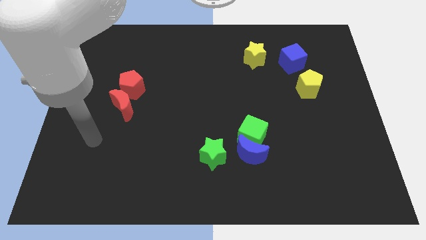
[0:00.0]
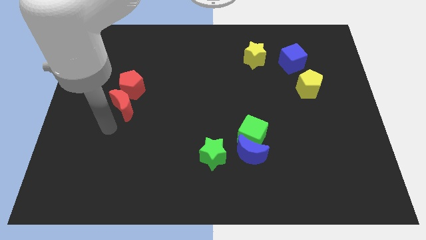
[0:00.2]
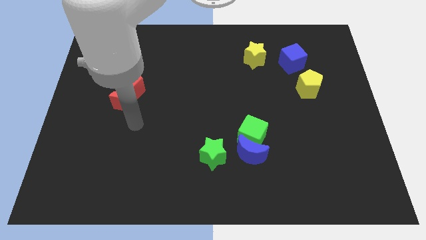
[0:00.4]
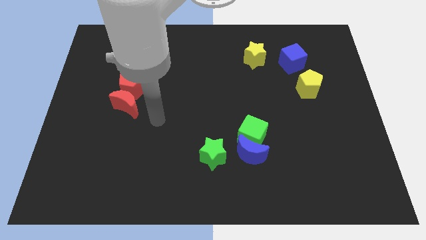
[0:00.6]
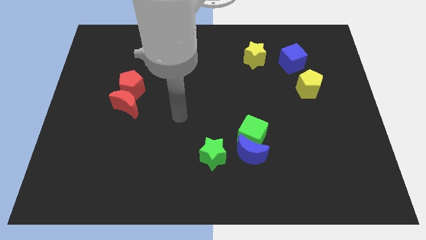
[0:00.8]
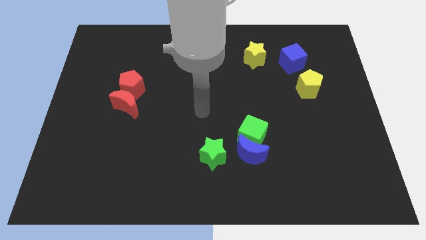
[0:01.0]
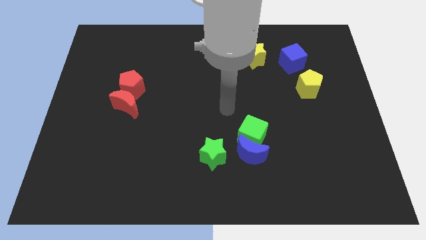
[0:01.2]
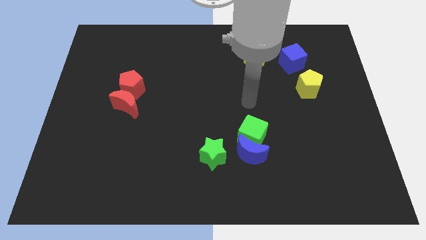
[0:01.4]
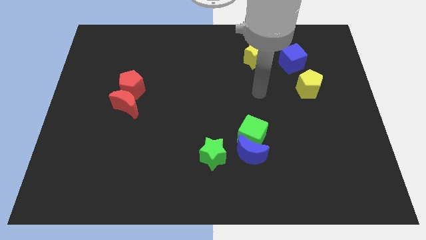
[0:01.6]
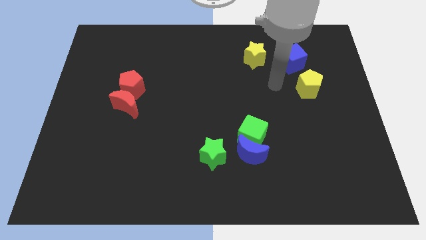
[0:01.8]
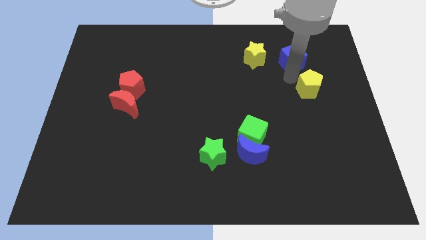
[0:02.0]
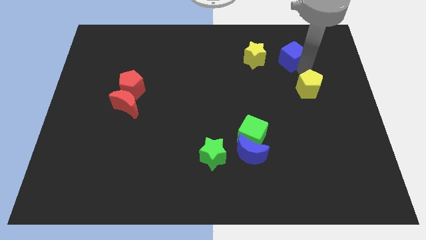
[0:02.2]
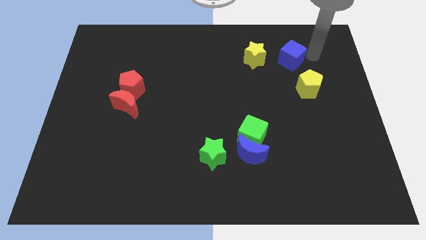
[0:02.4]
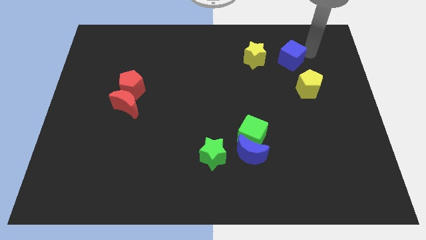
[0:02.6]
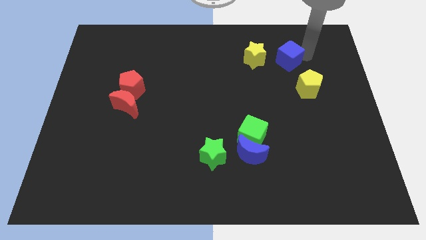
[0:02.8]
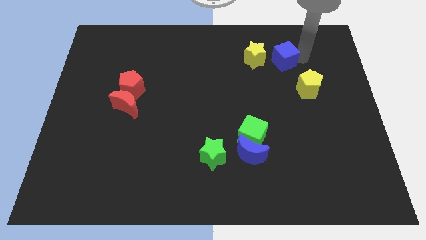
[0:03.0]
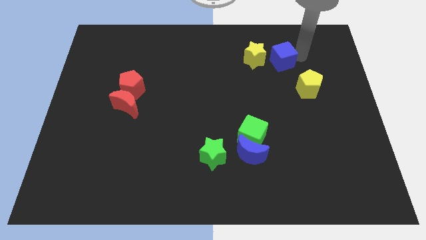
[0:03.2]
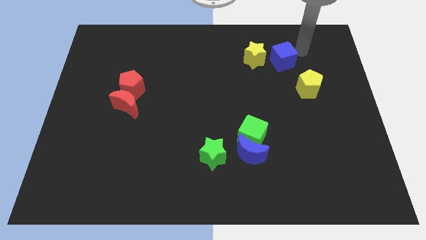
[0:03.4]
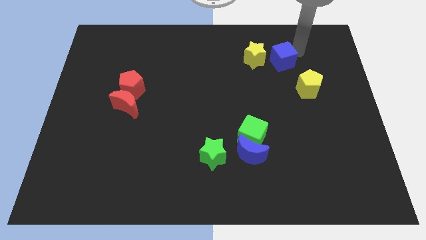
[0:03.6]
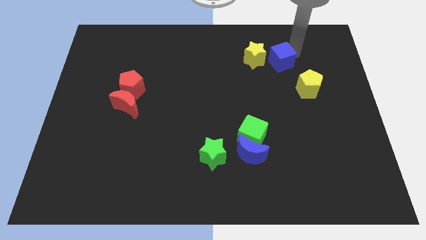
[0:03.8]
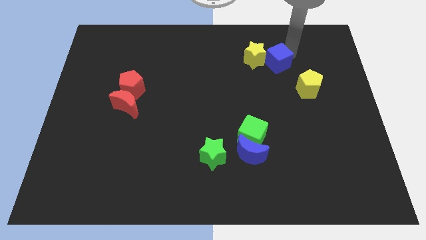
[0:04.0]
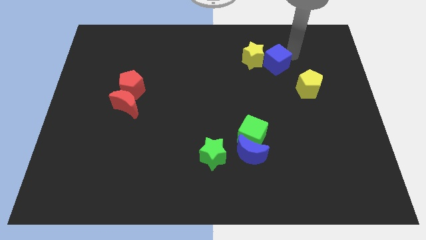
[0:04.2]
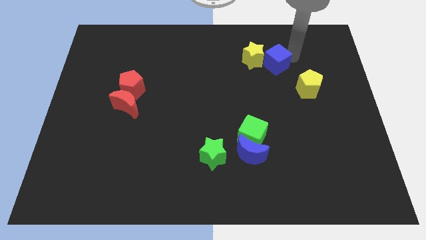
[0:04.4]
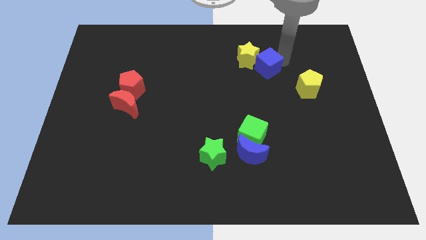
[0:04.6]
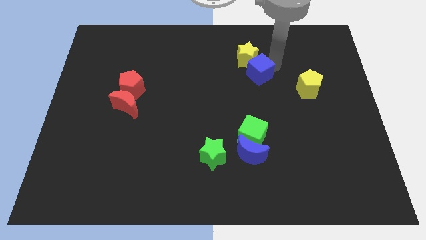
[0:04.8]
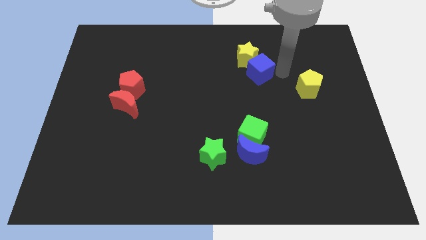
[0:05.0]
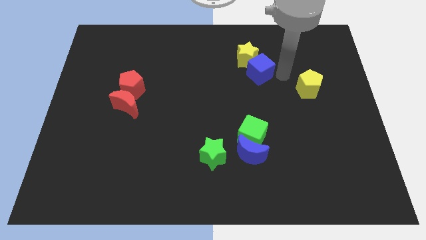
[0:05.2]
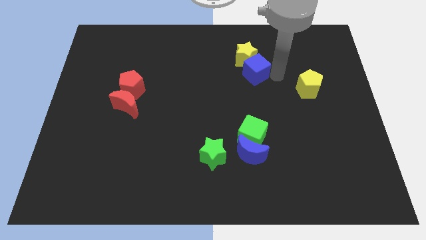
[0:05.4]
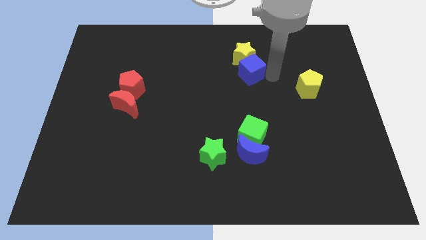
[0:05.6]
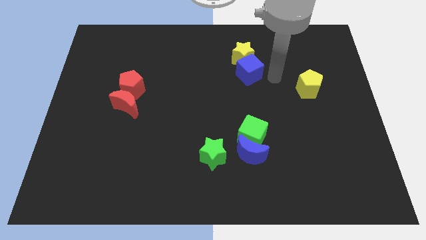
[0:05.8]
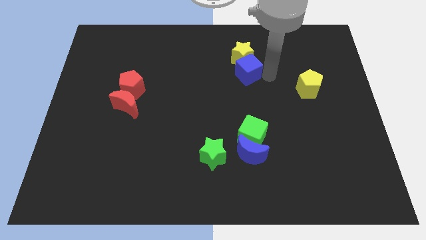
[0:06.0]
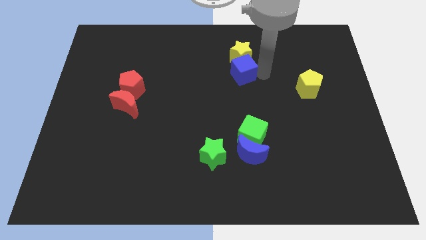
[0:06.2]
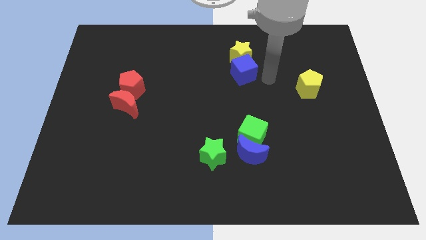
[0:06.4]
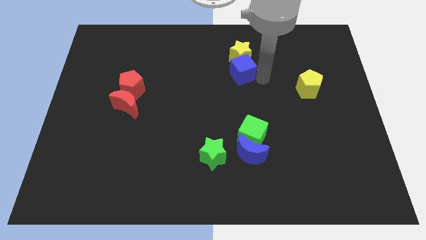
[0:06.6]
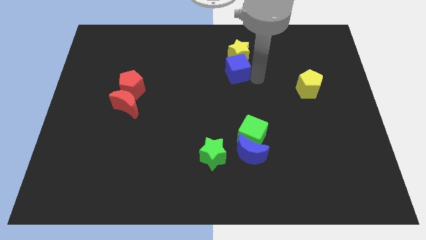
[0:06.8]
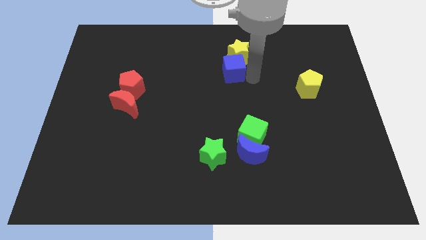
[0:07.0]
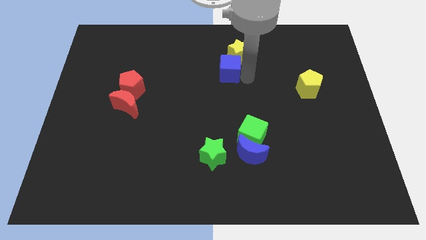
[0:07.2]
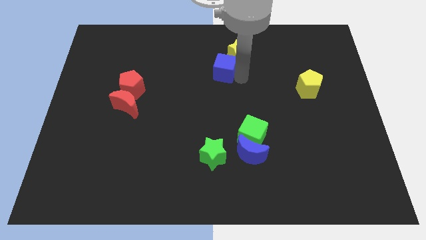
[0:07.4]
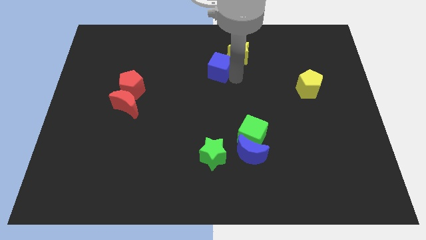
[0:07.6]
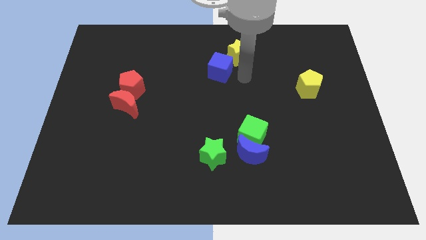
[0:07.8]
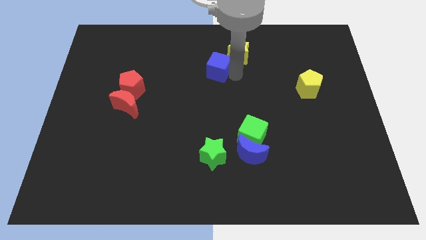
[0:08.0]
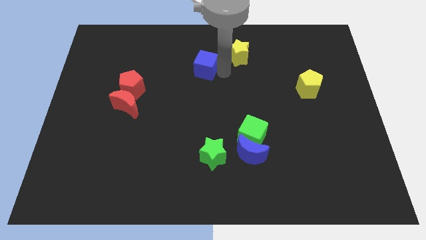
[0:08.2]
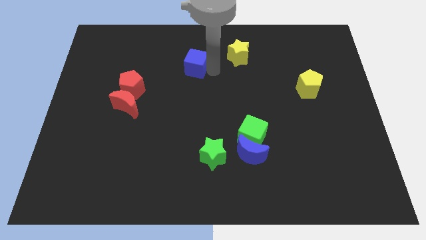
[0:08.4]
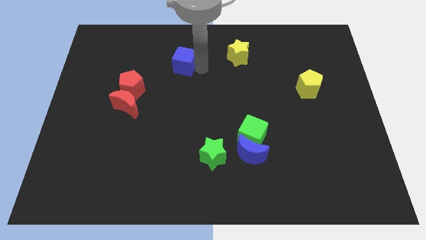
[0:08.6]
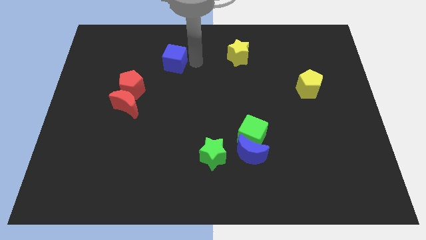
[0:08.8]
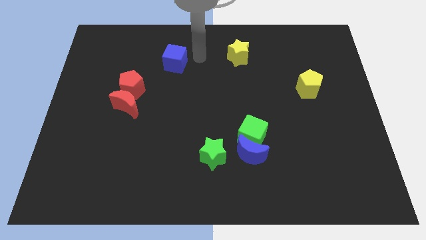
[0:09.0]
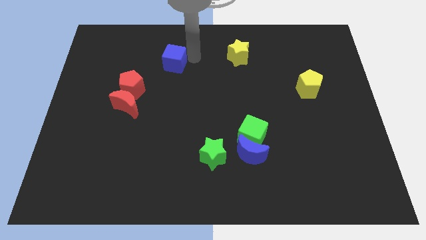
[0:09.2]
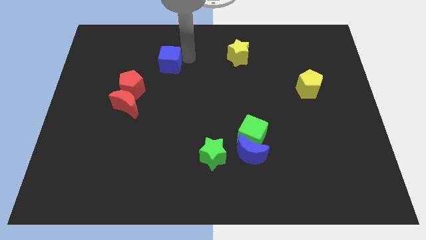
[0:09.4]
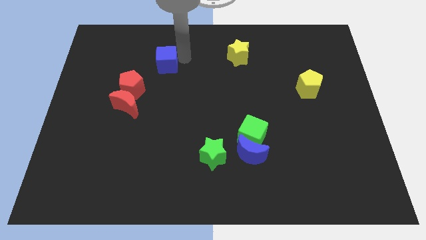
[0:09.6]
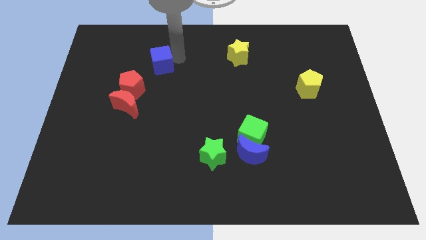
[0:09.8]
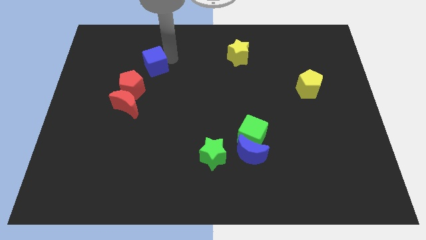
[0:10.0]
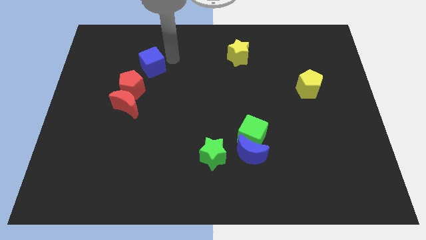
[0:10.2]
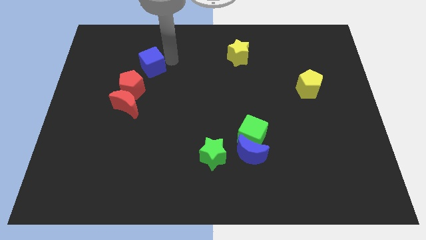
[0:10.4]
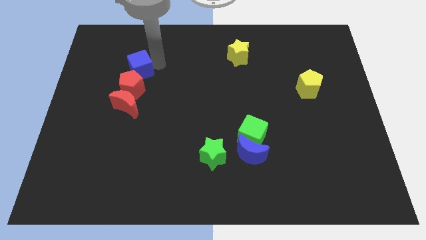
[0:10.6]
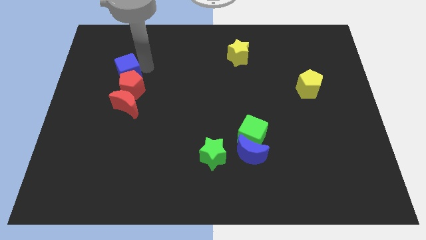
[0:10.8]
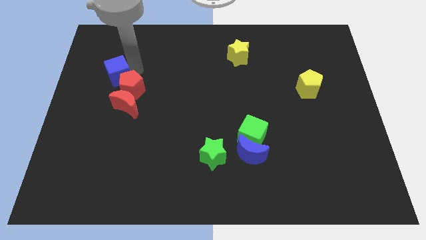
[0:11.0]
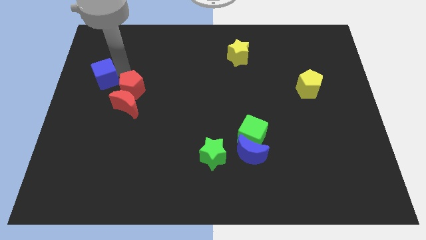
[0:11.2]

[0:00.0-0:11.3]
put the blue cube to the center left

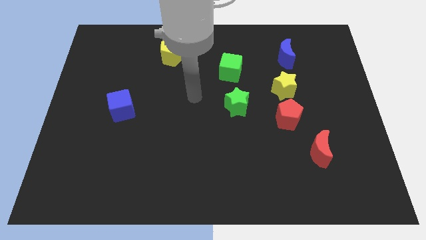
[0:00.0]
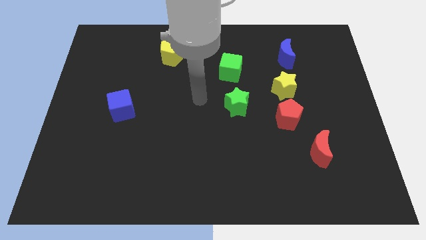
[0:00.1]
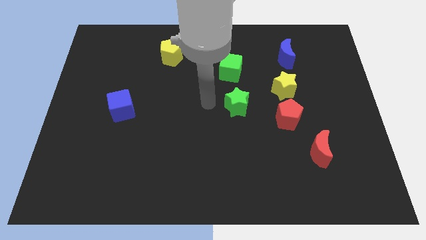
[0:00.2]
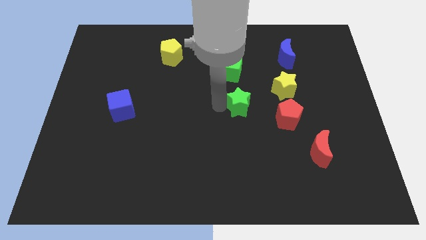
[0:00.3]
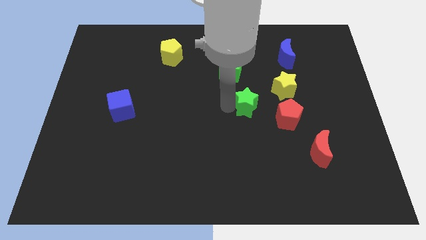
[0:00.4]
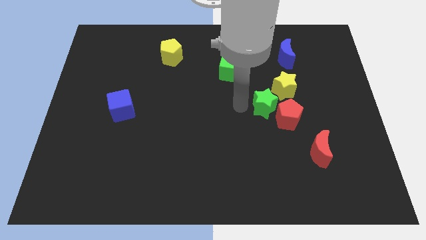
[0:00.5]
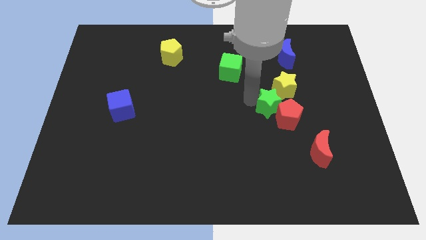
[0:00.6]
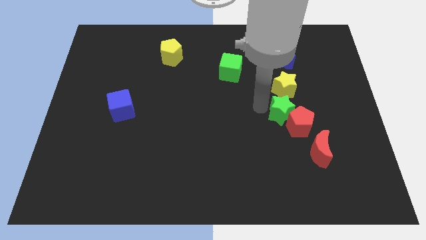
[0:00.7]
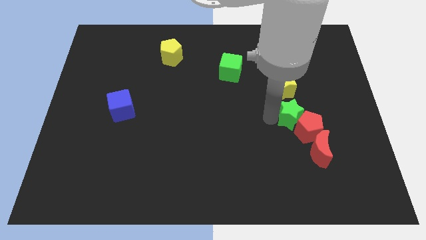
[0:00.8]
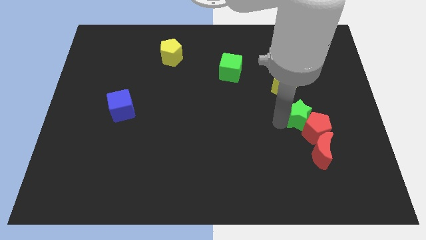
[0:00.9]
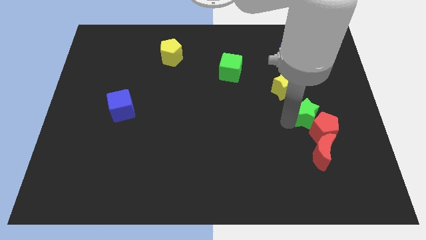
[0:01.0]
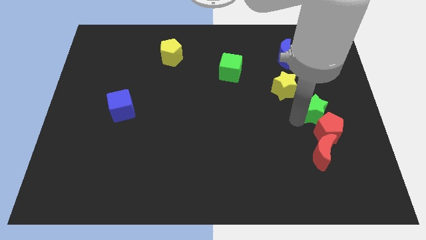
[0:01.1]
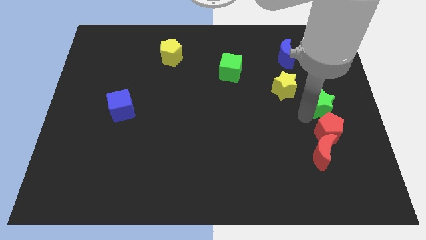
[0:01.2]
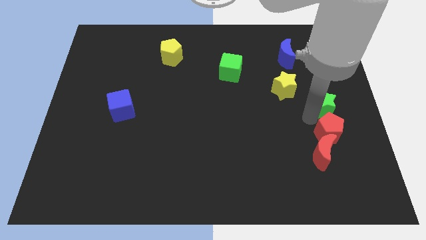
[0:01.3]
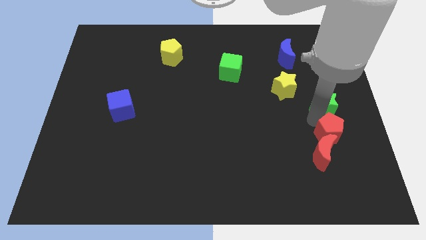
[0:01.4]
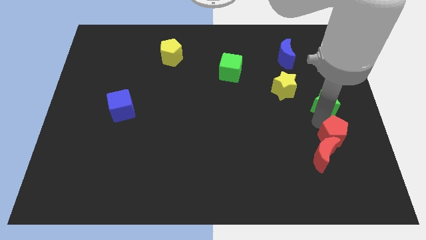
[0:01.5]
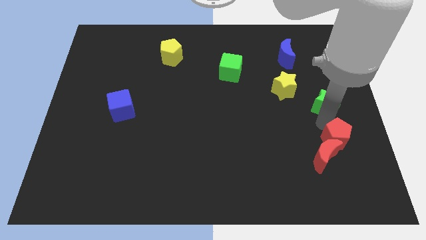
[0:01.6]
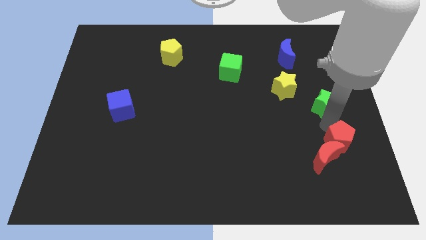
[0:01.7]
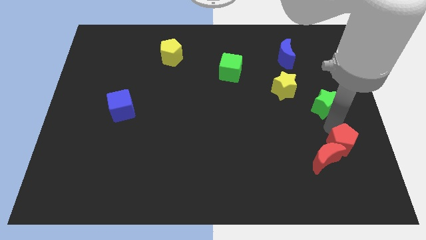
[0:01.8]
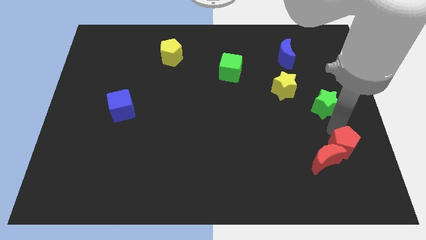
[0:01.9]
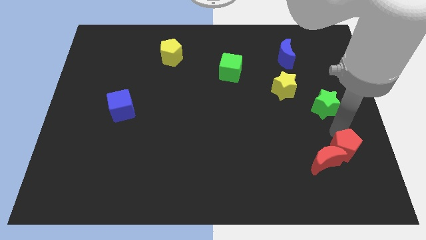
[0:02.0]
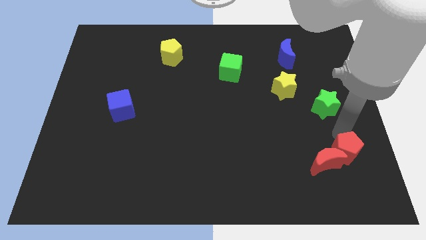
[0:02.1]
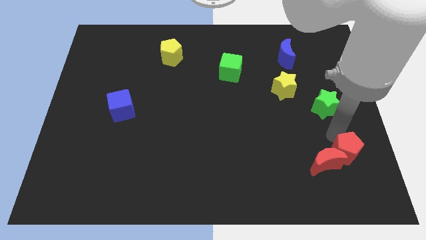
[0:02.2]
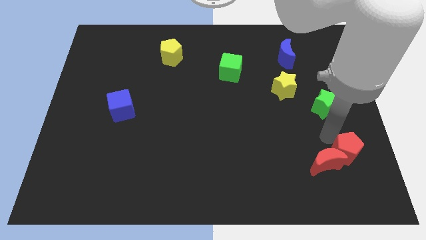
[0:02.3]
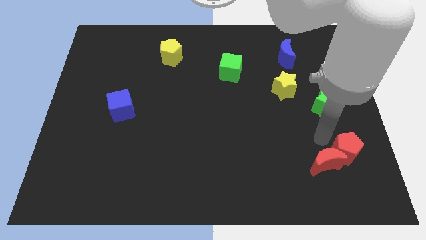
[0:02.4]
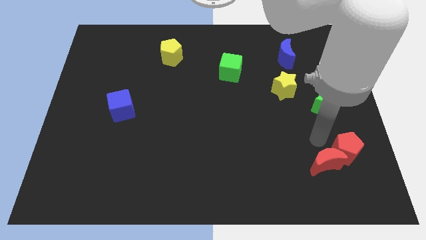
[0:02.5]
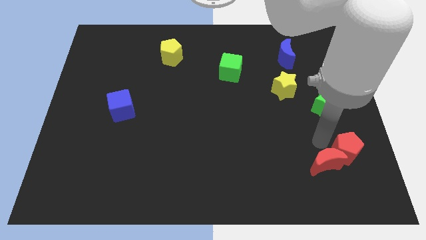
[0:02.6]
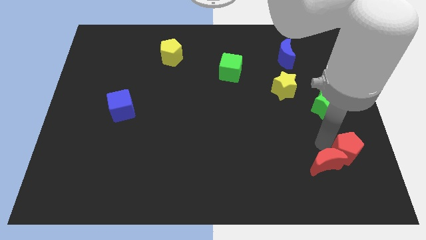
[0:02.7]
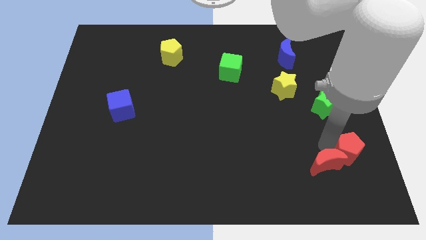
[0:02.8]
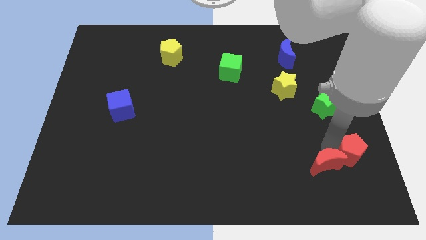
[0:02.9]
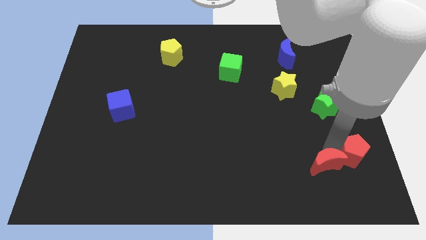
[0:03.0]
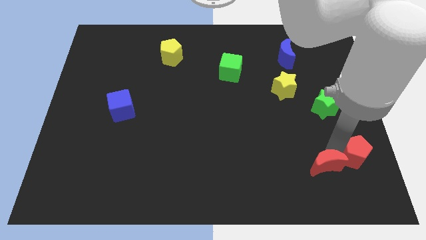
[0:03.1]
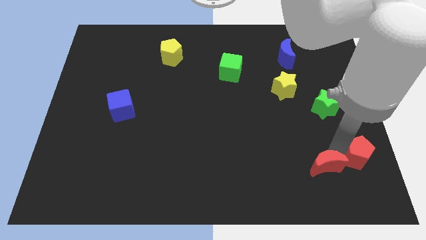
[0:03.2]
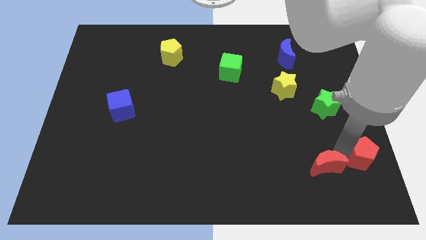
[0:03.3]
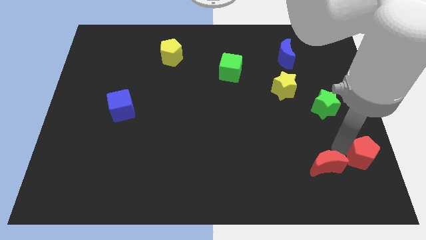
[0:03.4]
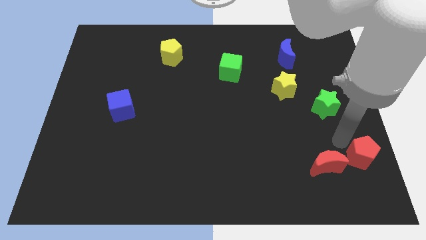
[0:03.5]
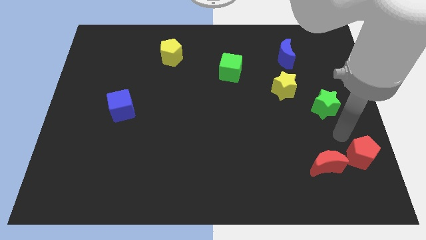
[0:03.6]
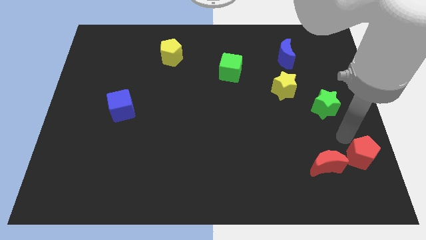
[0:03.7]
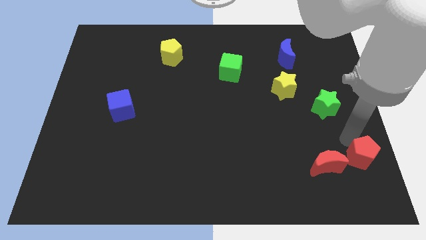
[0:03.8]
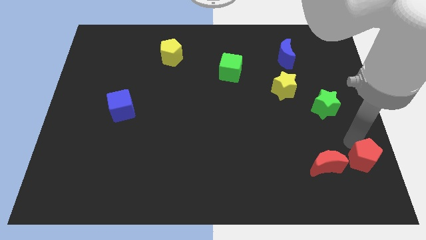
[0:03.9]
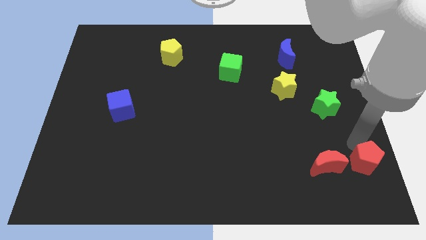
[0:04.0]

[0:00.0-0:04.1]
put the red pentagon to the bottom right
